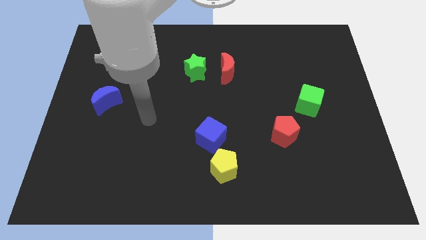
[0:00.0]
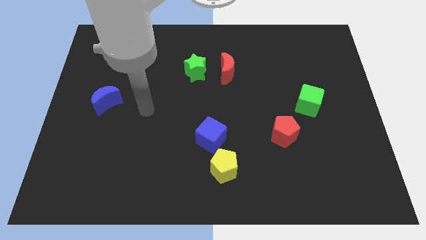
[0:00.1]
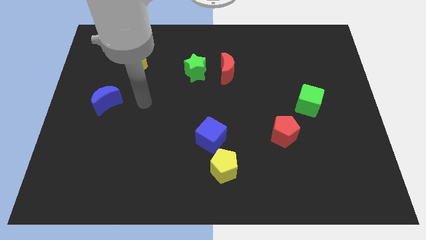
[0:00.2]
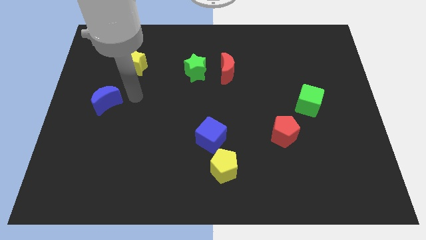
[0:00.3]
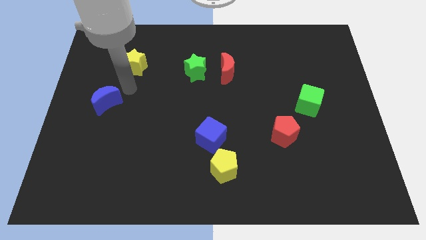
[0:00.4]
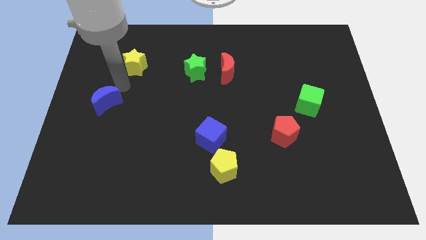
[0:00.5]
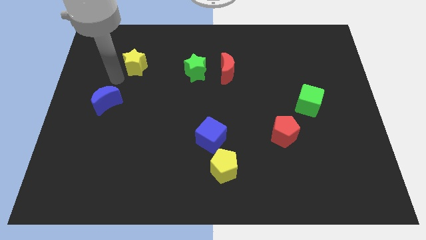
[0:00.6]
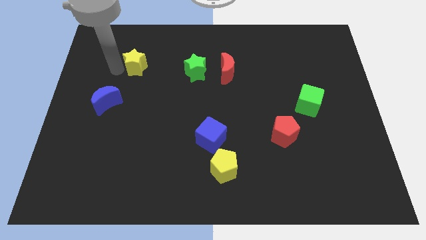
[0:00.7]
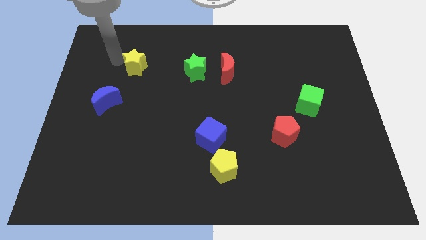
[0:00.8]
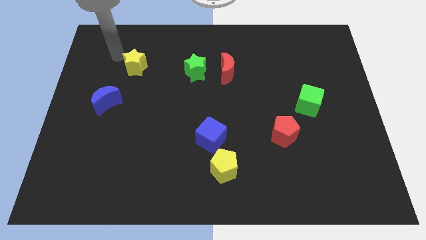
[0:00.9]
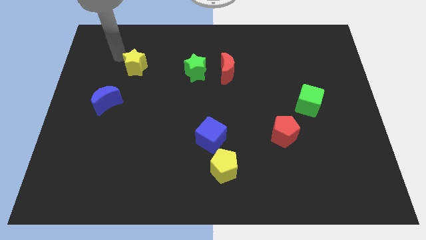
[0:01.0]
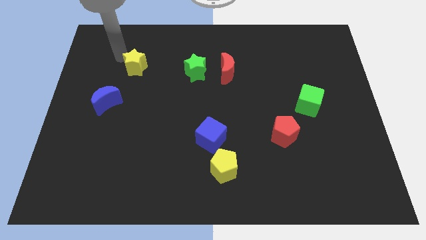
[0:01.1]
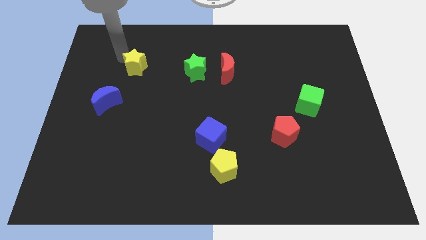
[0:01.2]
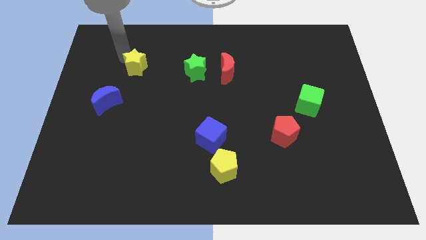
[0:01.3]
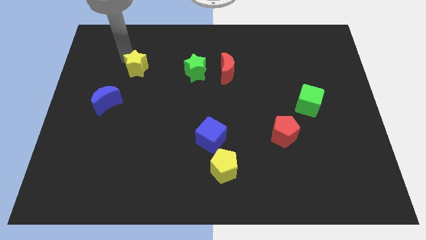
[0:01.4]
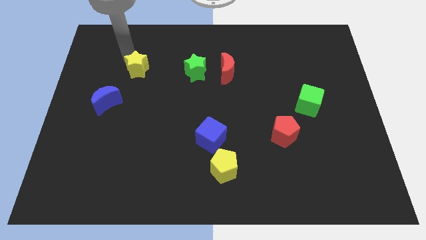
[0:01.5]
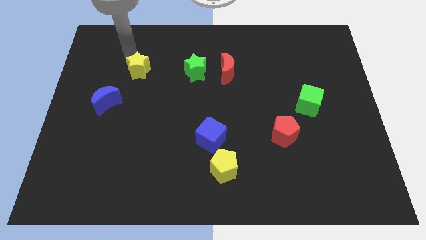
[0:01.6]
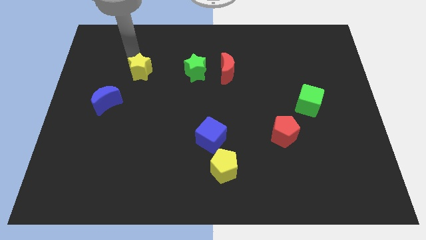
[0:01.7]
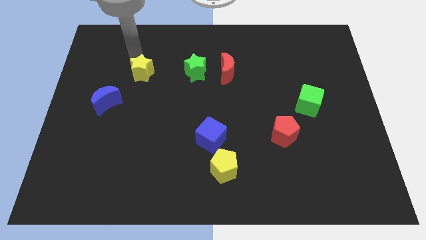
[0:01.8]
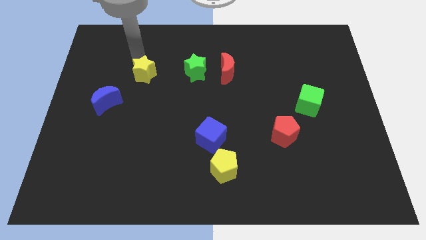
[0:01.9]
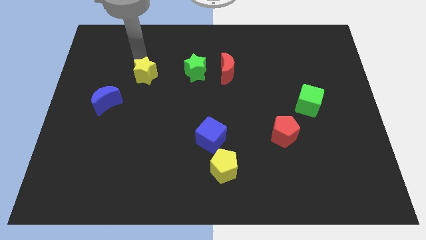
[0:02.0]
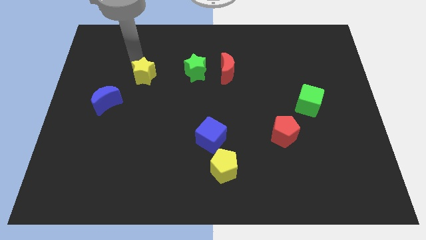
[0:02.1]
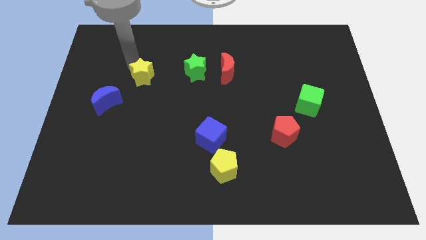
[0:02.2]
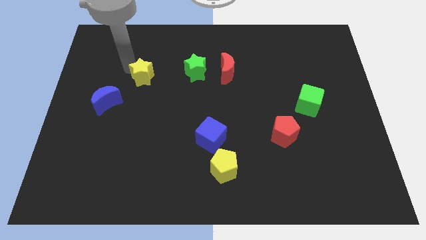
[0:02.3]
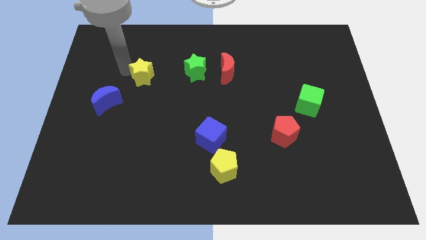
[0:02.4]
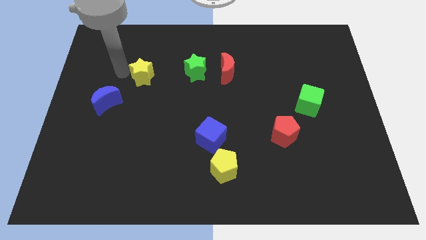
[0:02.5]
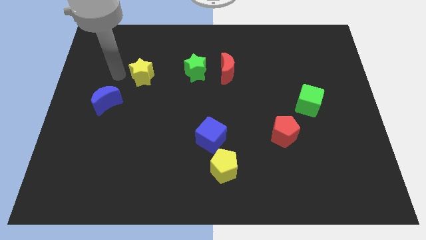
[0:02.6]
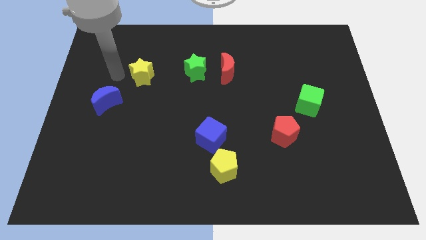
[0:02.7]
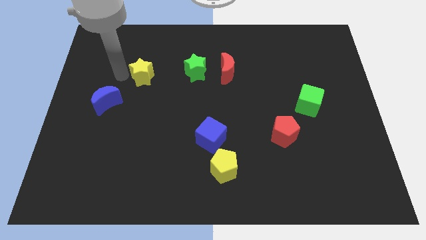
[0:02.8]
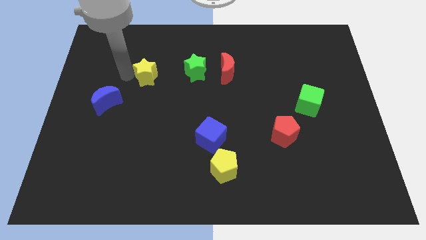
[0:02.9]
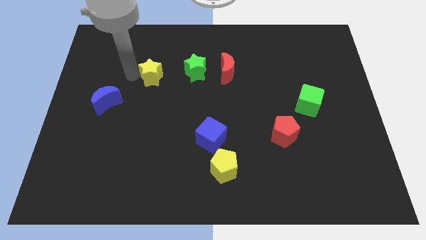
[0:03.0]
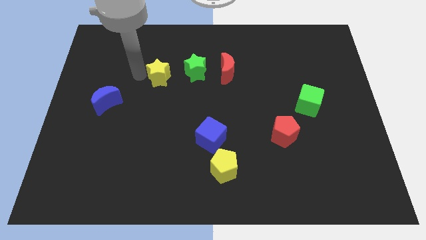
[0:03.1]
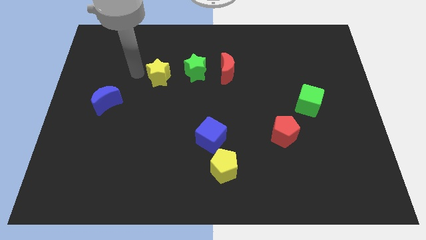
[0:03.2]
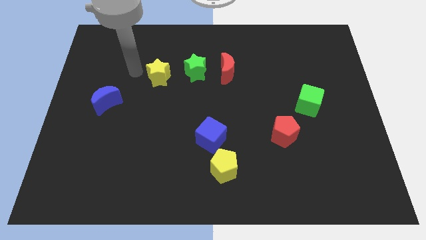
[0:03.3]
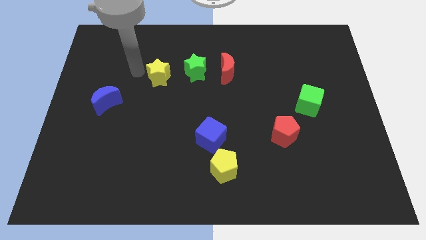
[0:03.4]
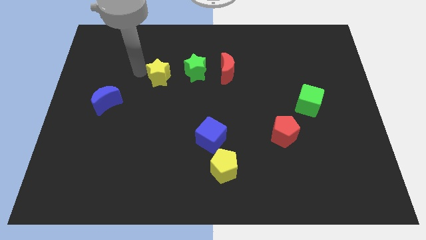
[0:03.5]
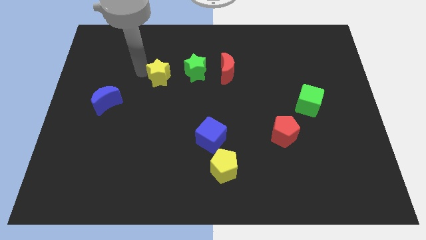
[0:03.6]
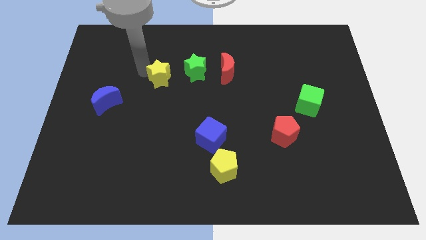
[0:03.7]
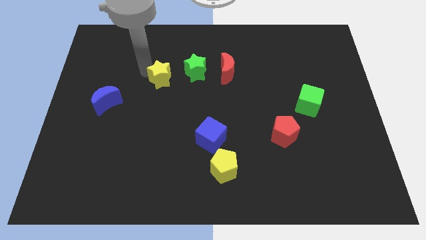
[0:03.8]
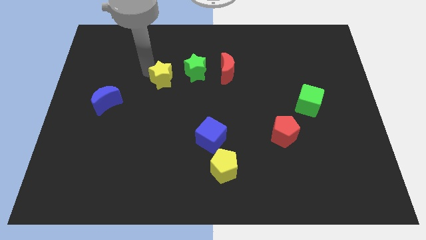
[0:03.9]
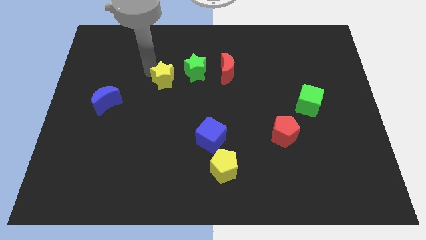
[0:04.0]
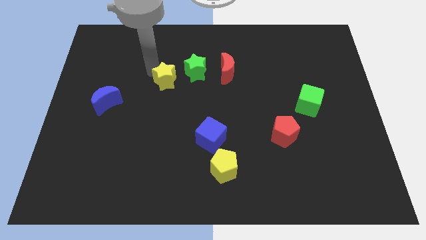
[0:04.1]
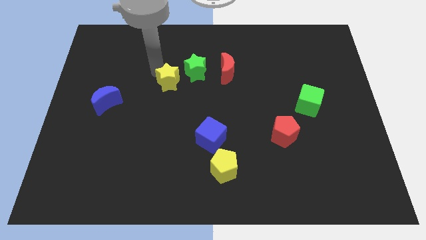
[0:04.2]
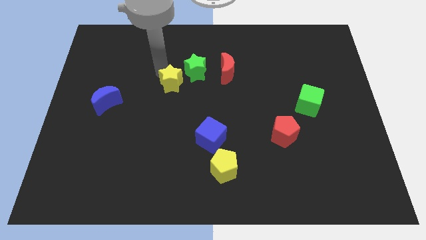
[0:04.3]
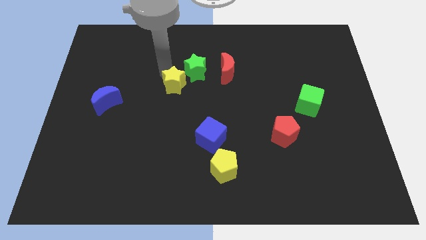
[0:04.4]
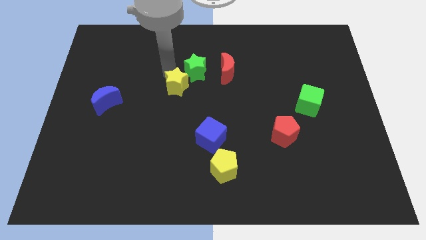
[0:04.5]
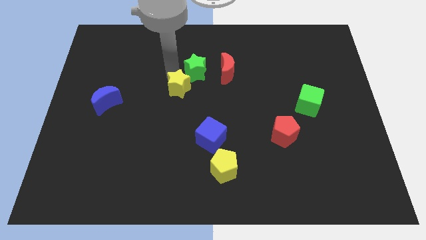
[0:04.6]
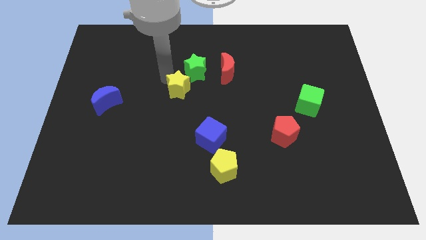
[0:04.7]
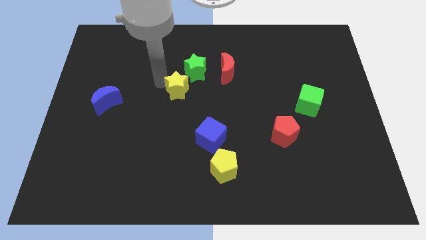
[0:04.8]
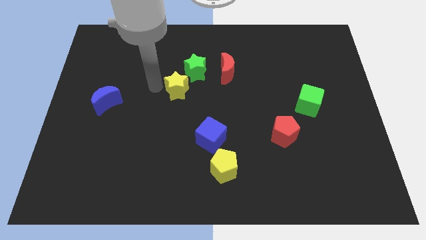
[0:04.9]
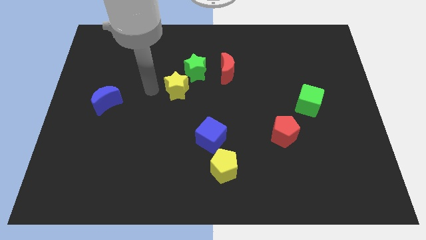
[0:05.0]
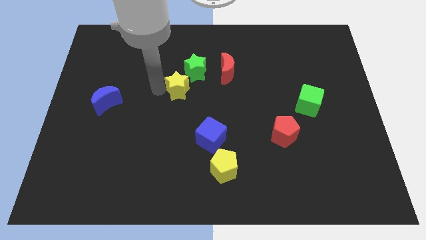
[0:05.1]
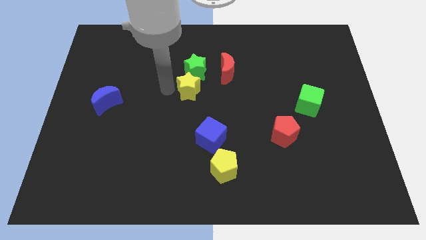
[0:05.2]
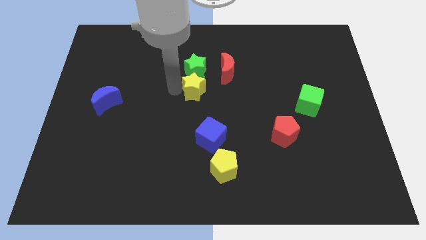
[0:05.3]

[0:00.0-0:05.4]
slide the yellow star diagonally down and to the right of the green star
